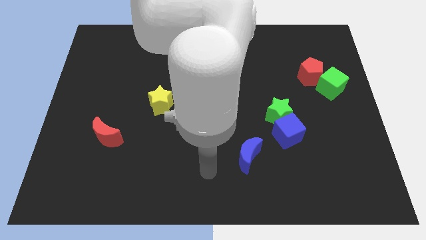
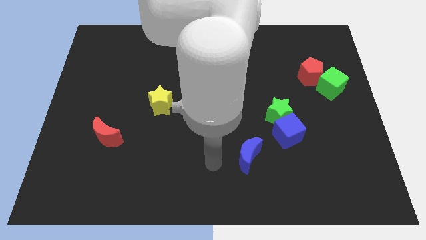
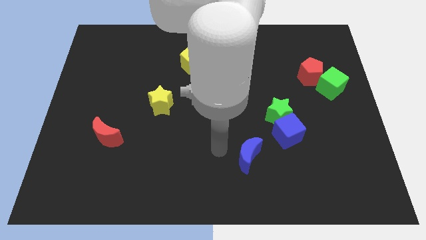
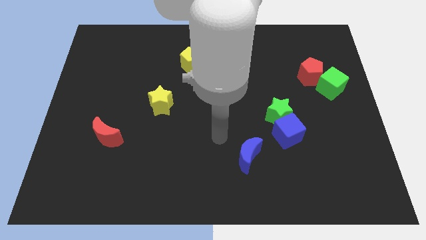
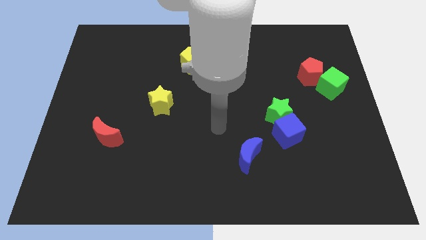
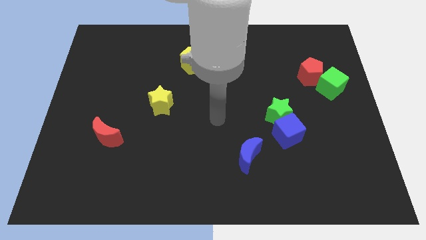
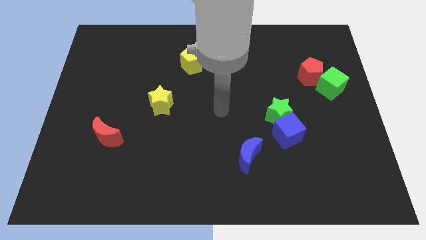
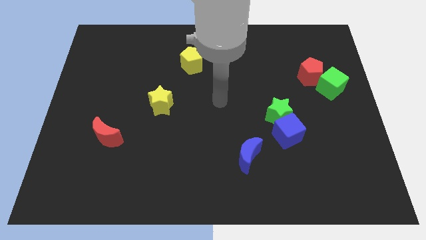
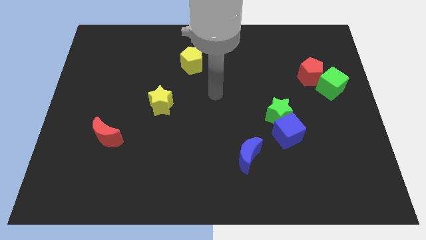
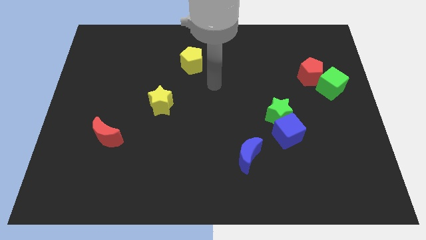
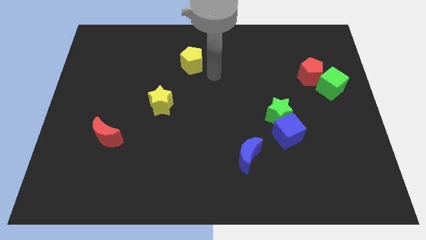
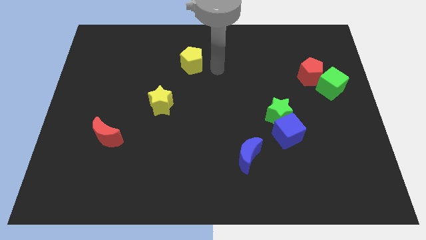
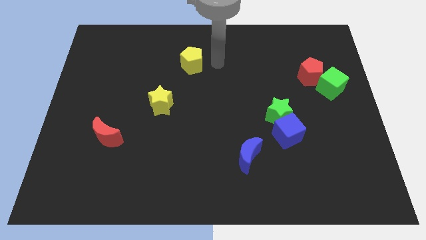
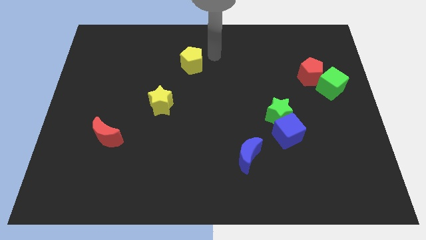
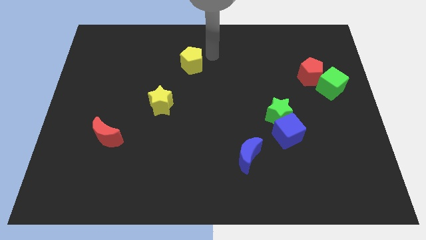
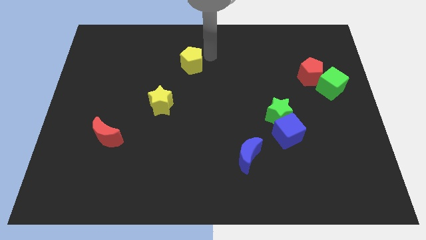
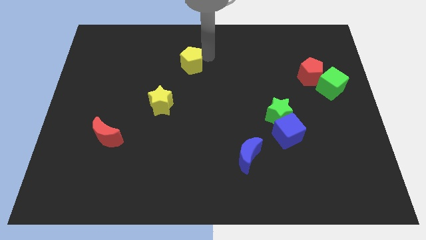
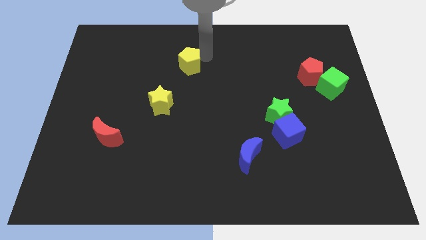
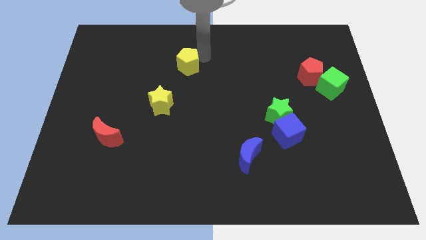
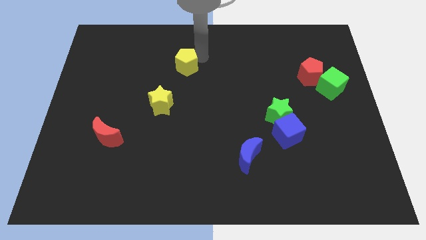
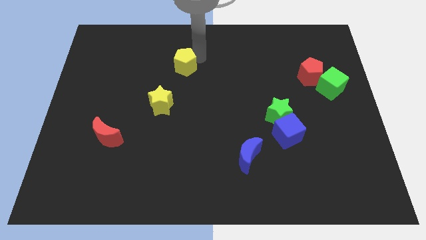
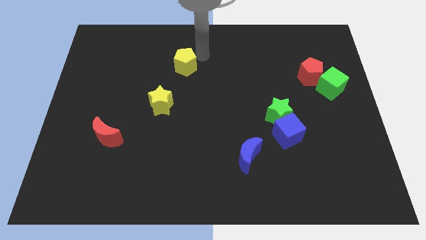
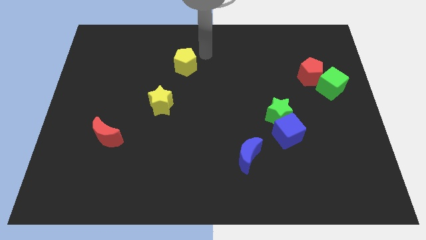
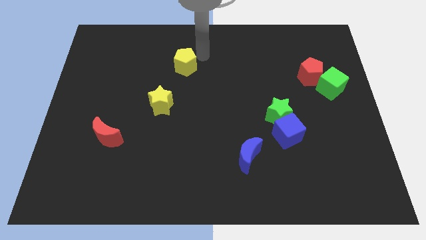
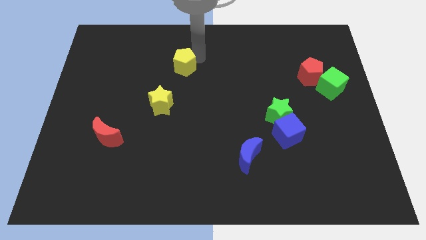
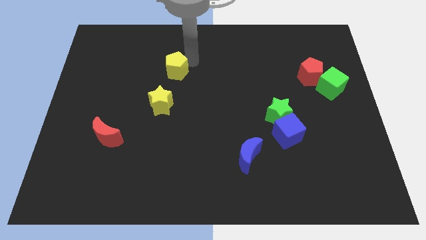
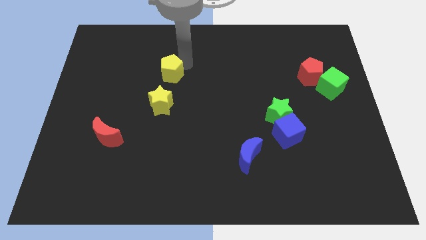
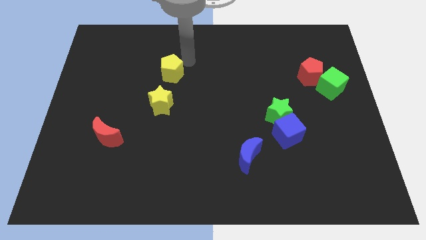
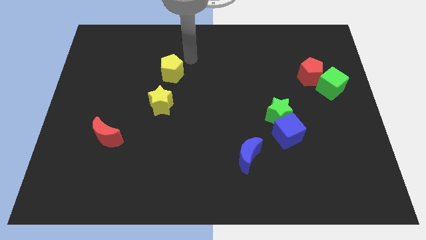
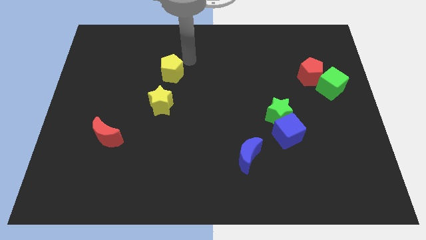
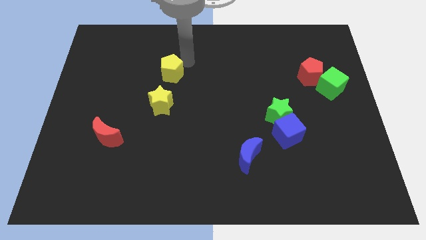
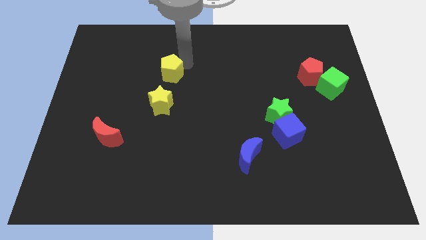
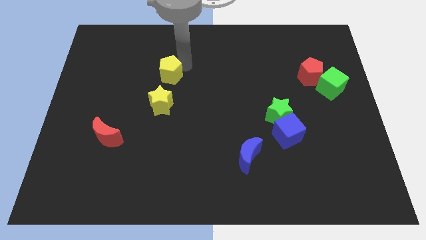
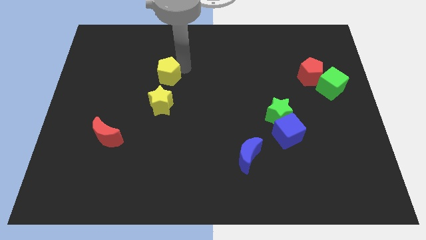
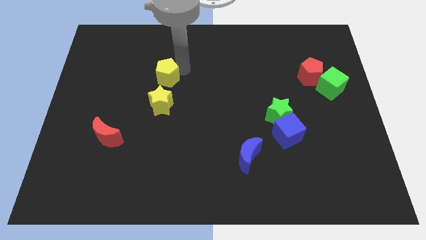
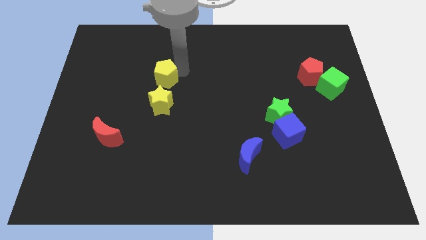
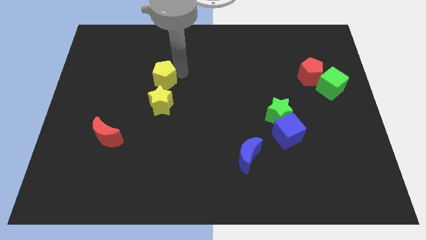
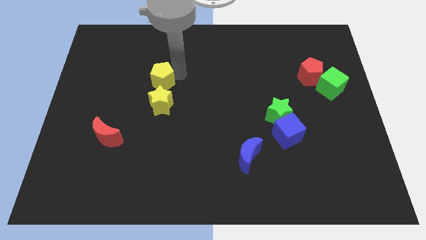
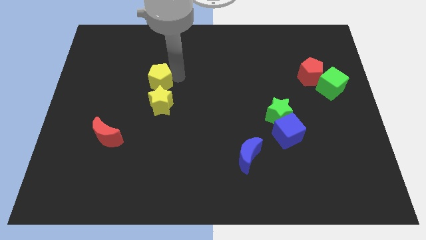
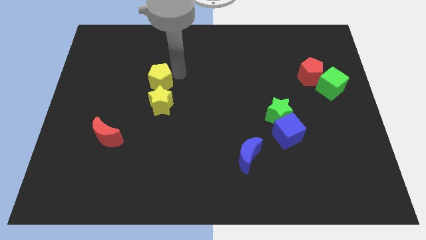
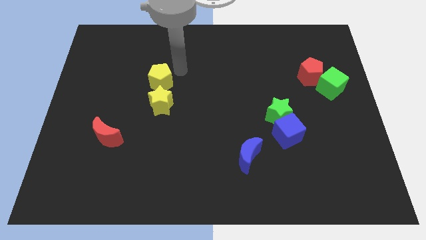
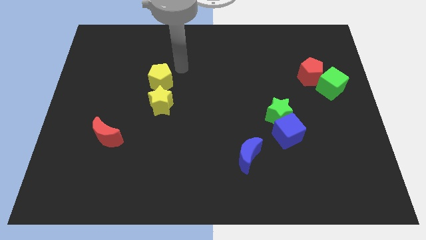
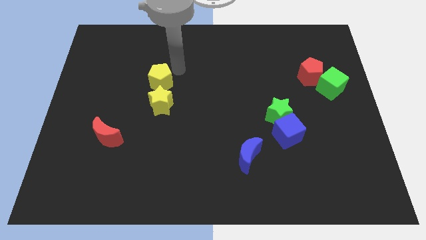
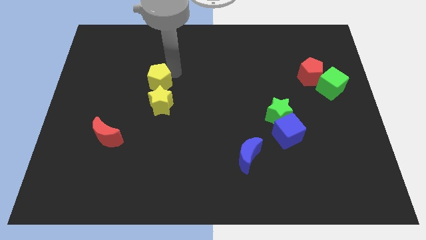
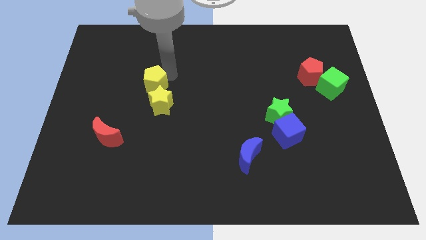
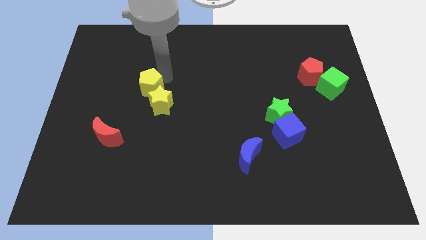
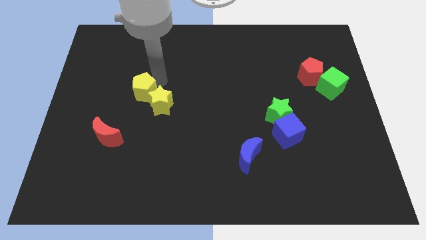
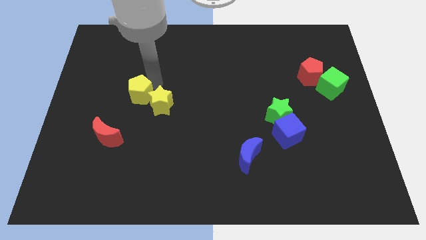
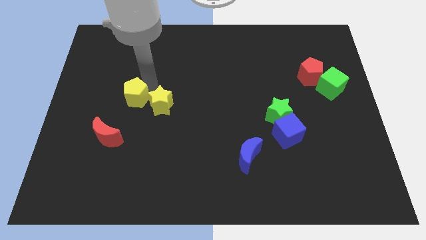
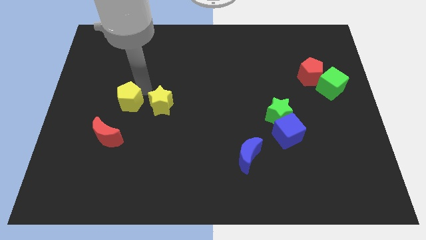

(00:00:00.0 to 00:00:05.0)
put the yellow pentagon to the top right side of the red moon

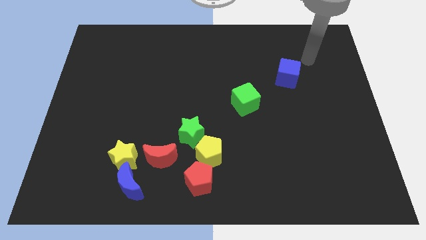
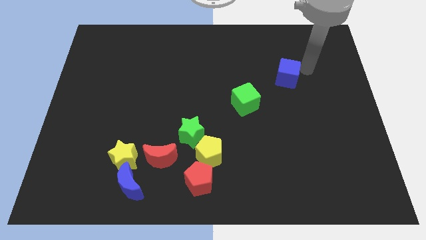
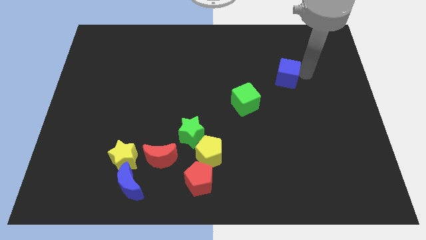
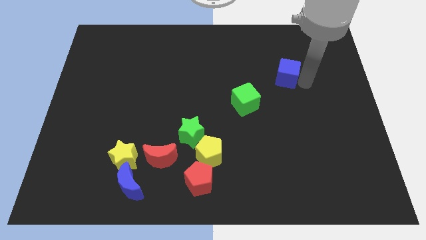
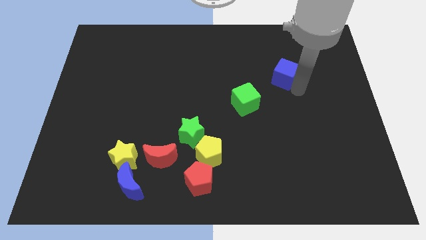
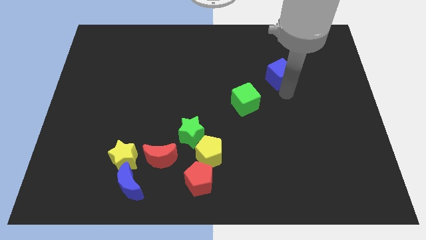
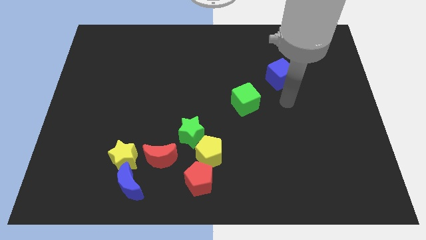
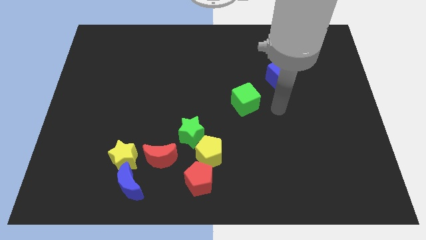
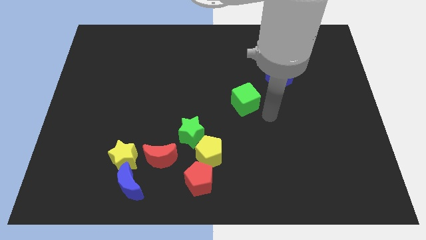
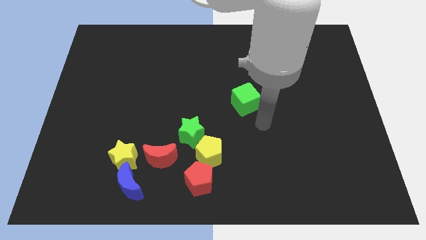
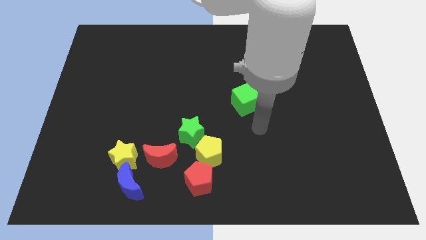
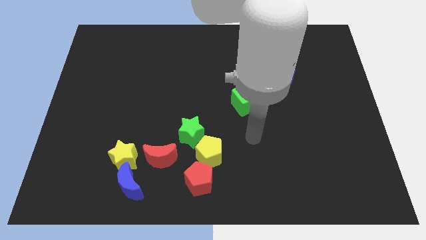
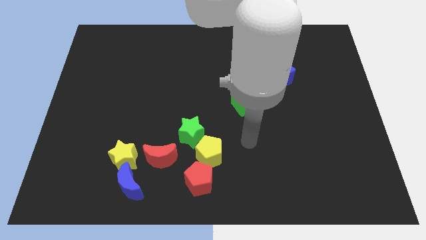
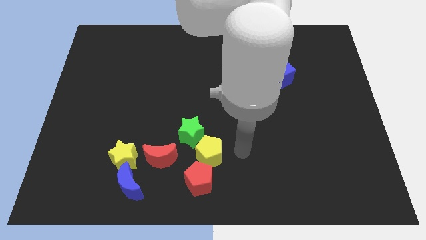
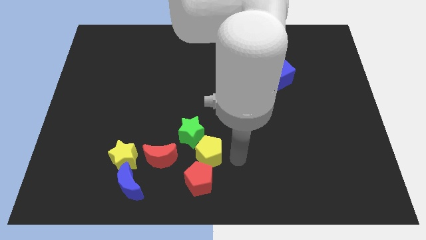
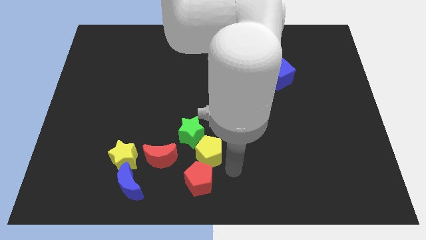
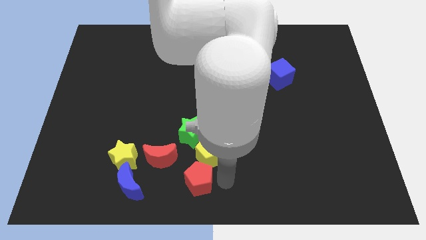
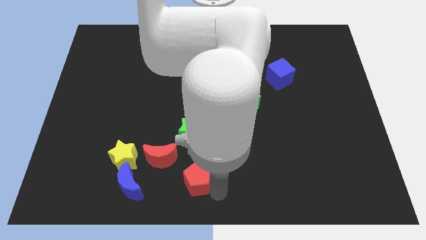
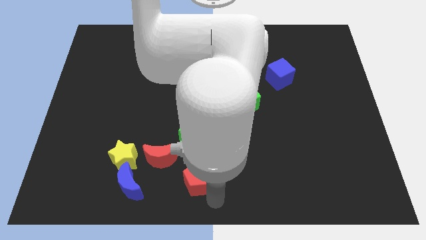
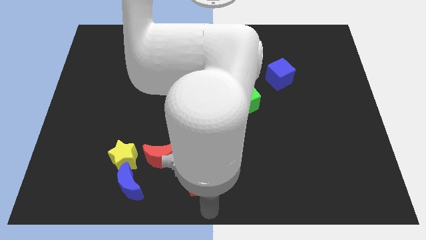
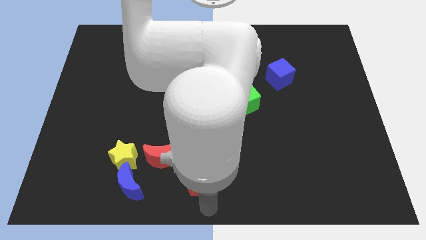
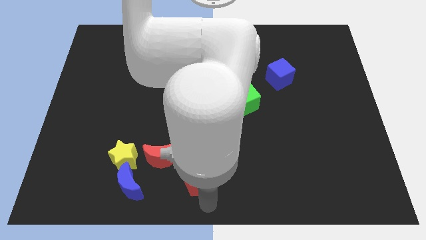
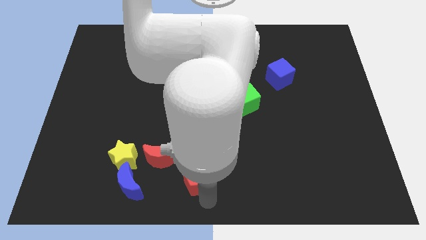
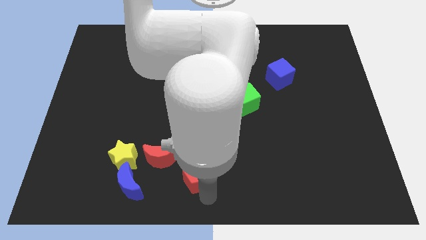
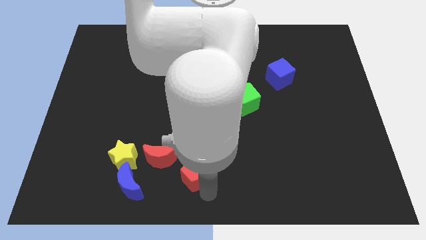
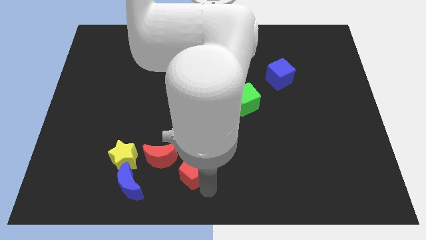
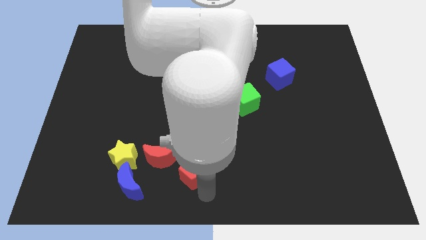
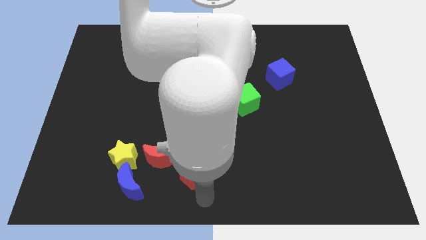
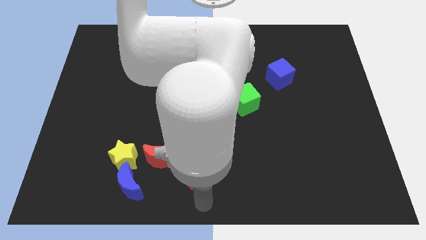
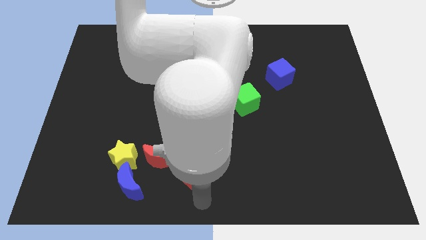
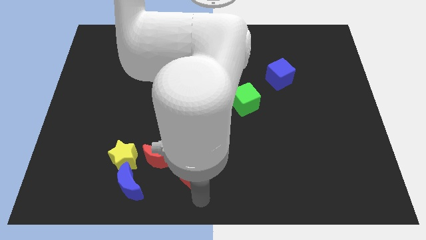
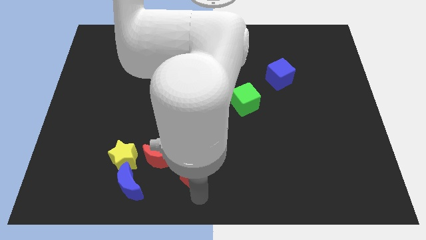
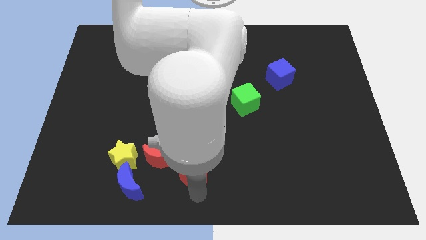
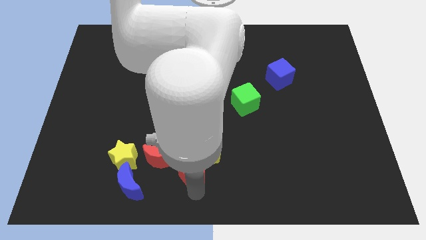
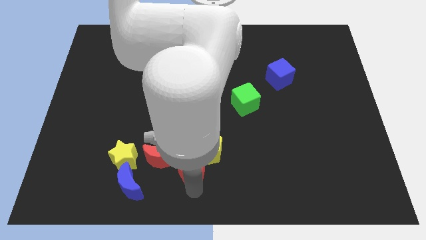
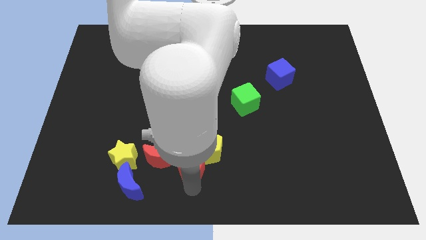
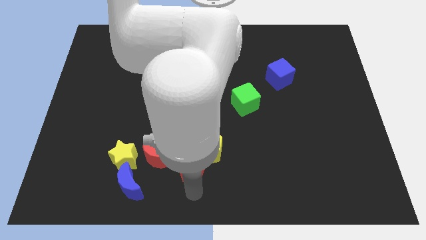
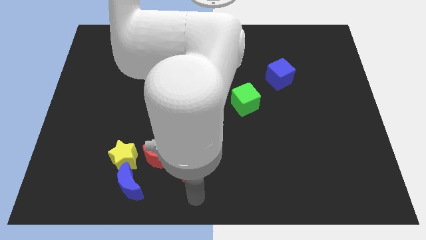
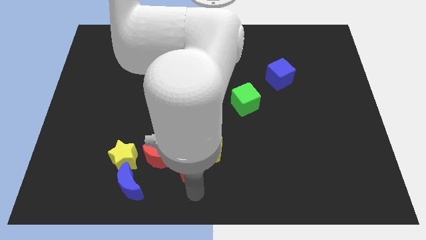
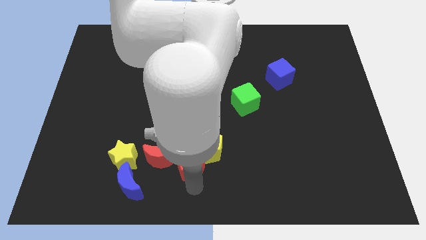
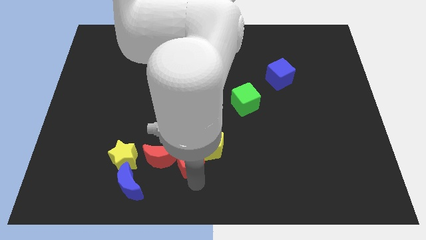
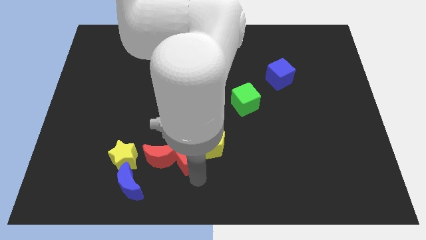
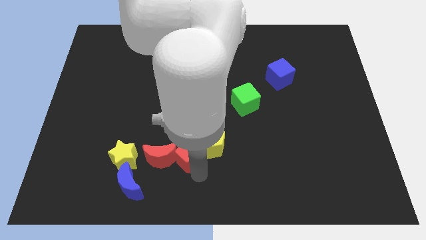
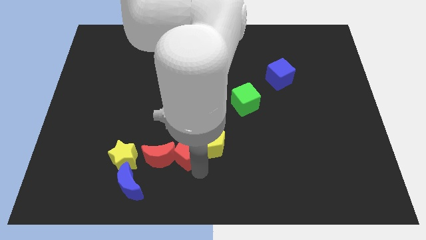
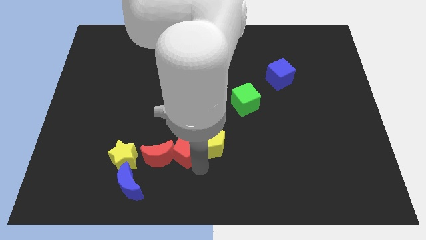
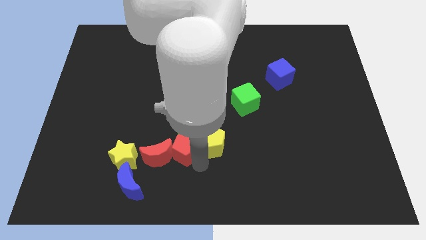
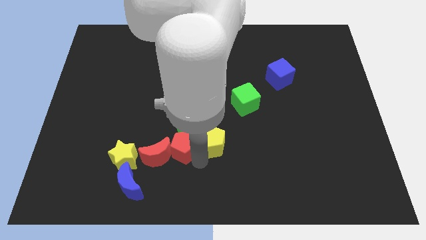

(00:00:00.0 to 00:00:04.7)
put the red pentagon to the top left side of the yellow pentagon
